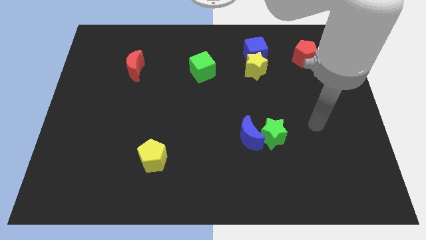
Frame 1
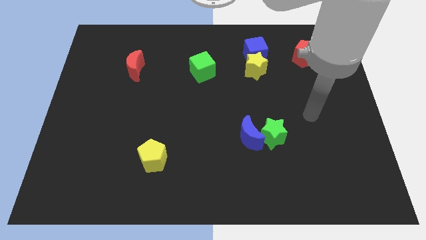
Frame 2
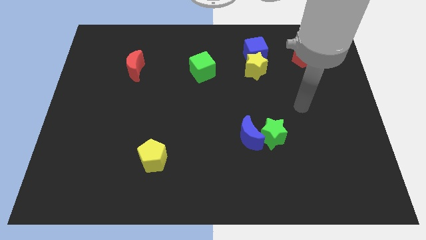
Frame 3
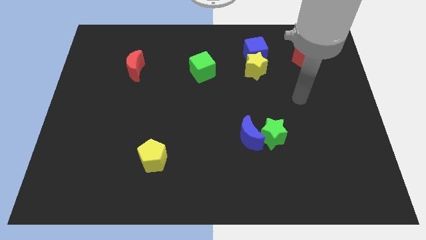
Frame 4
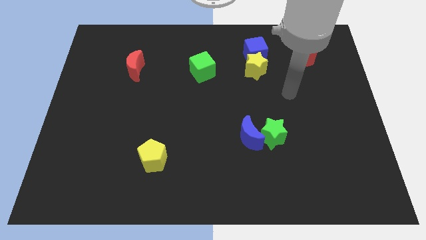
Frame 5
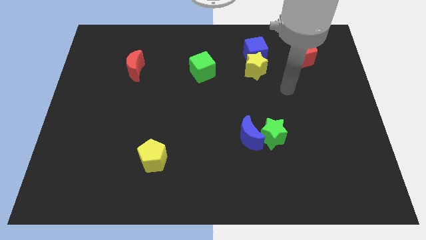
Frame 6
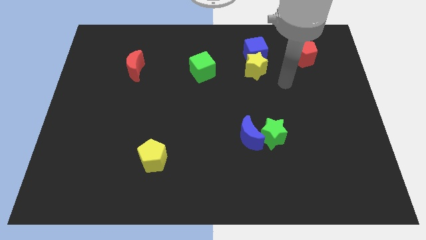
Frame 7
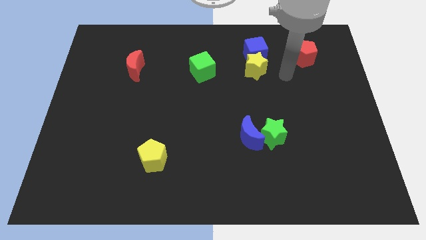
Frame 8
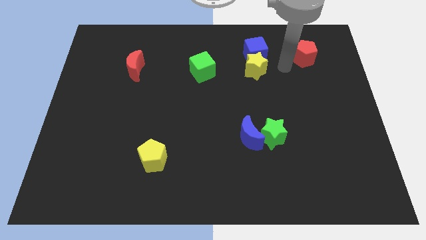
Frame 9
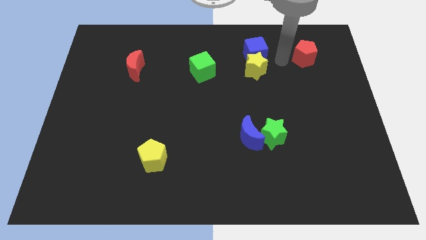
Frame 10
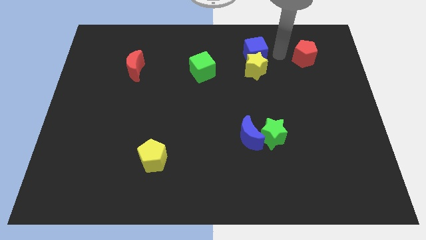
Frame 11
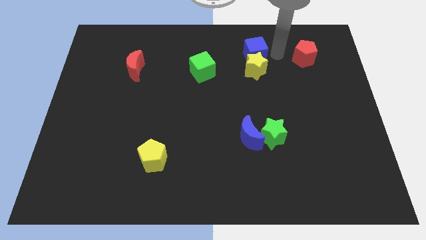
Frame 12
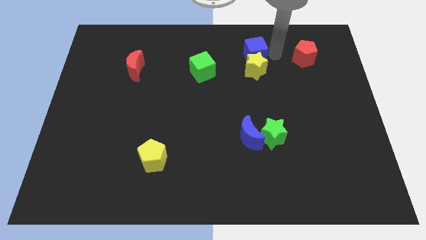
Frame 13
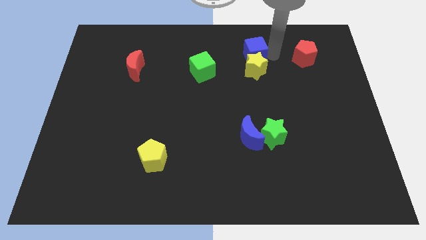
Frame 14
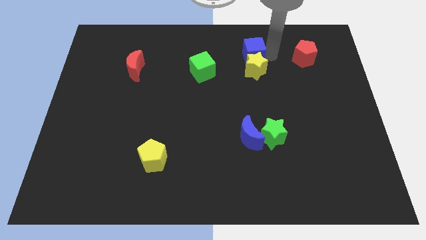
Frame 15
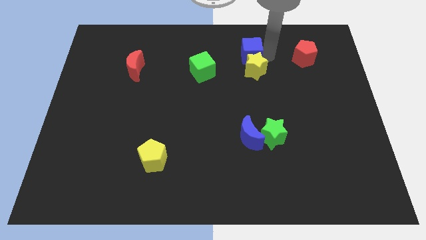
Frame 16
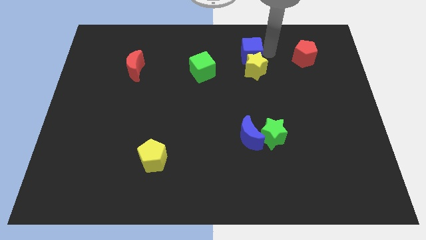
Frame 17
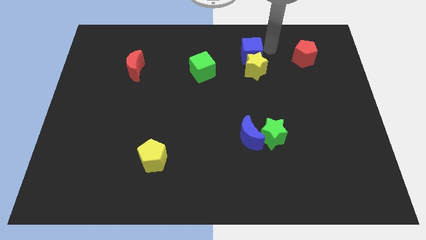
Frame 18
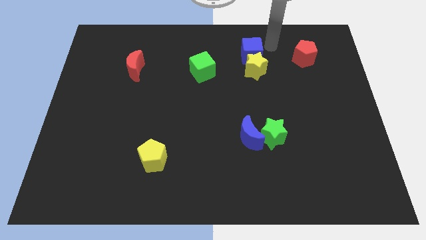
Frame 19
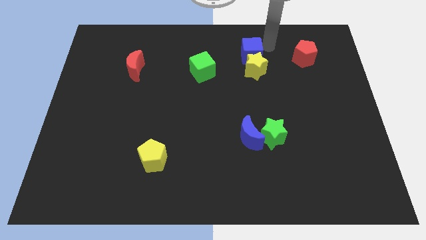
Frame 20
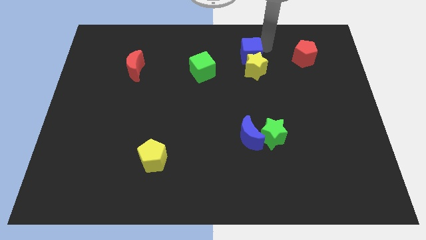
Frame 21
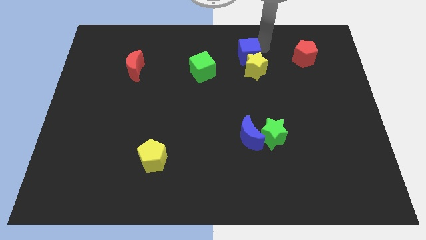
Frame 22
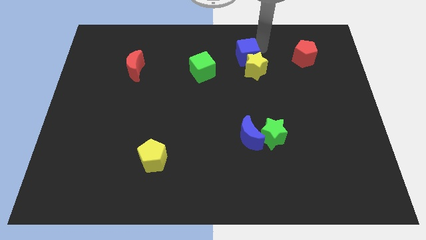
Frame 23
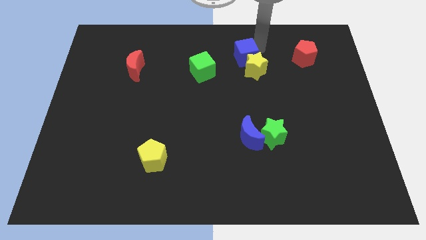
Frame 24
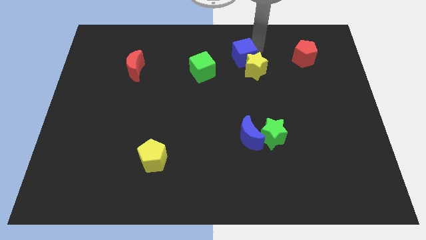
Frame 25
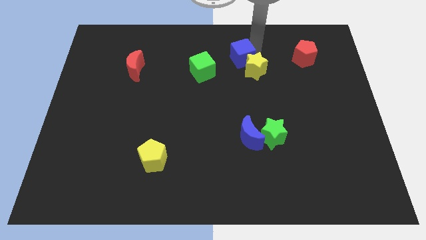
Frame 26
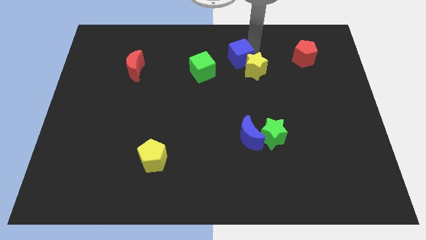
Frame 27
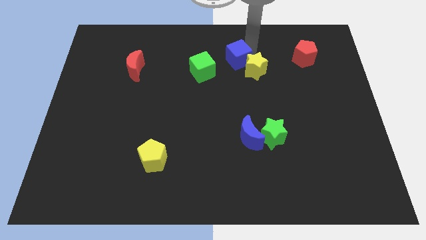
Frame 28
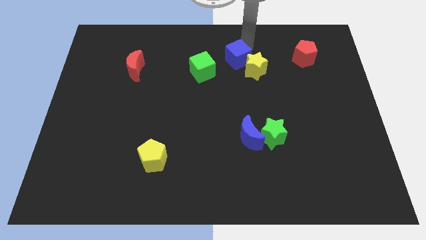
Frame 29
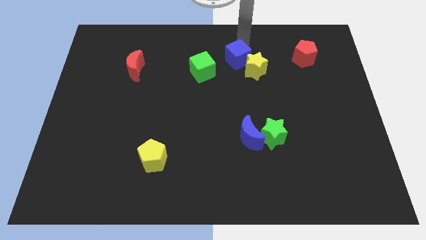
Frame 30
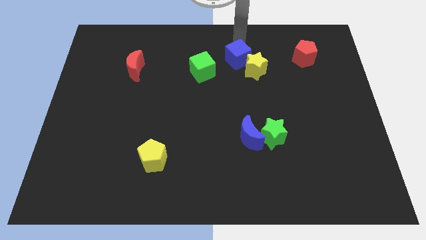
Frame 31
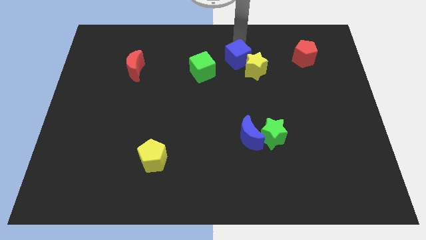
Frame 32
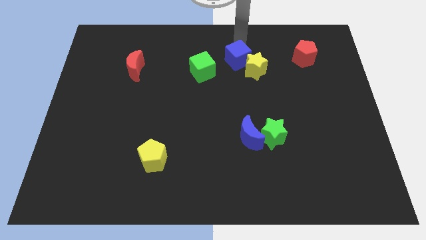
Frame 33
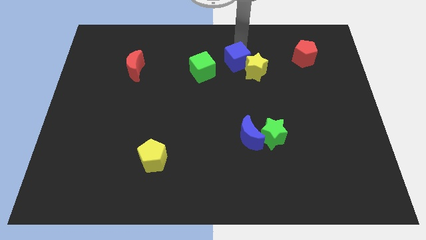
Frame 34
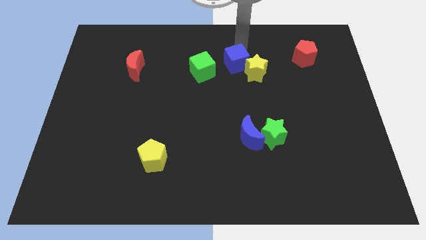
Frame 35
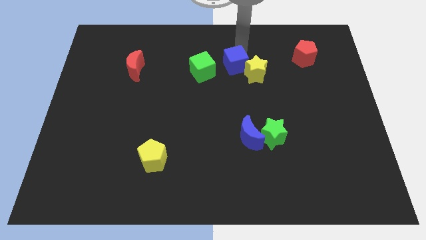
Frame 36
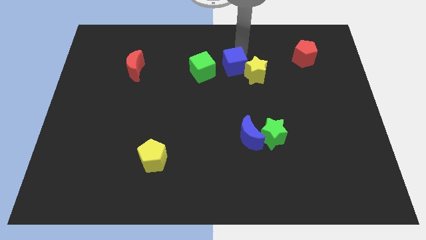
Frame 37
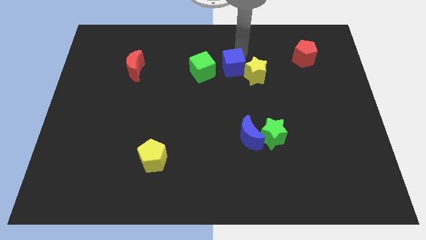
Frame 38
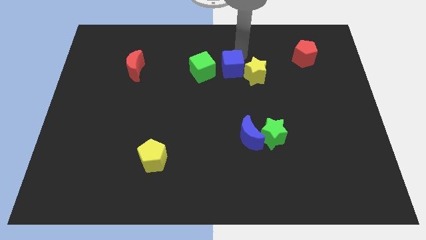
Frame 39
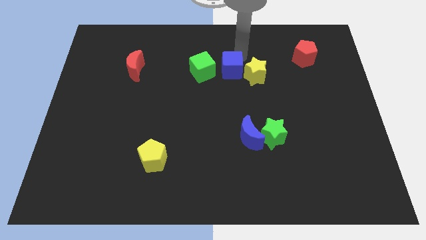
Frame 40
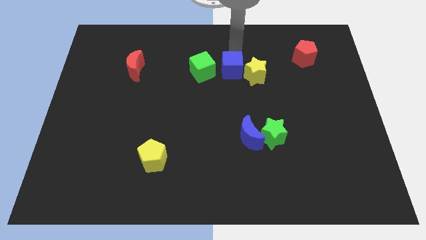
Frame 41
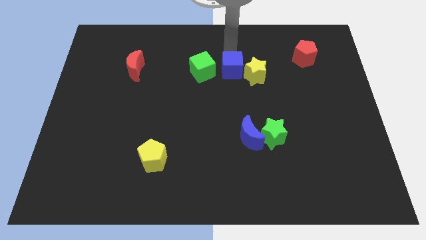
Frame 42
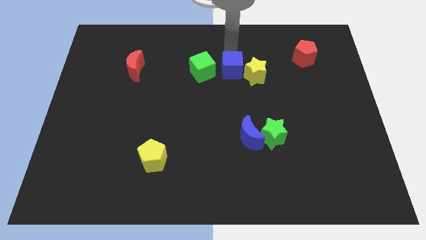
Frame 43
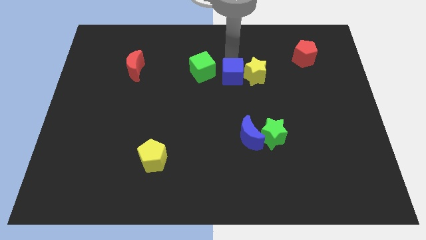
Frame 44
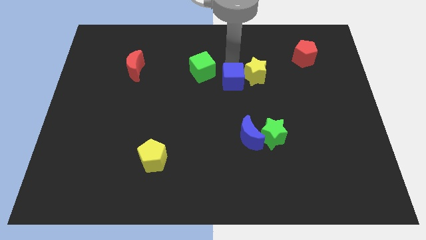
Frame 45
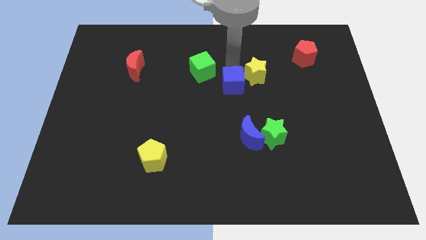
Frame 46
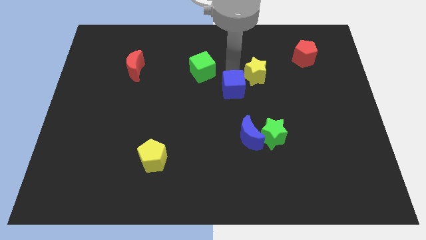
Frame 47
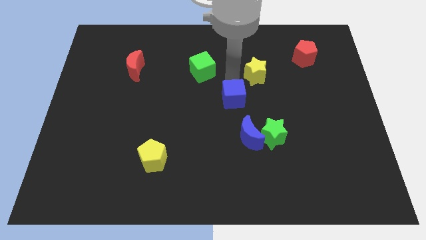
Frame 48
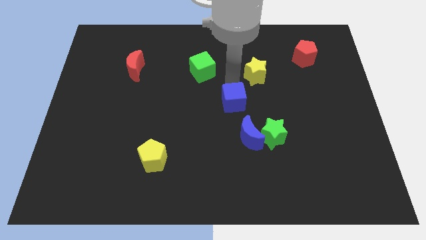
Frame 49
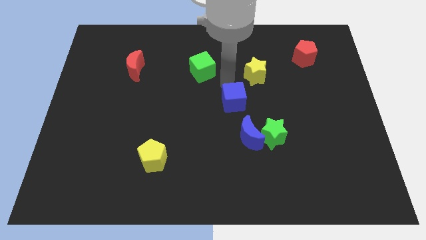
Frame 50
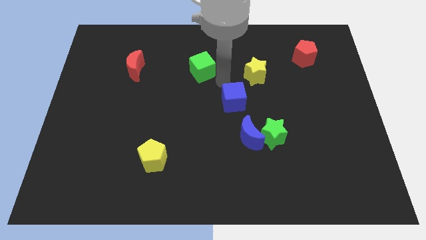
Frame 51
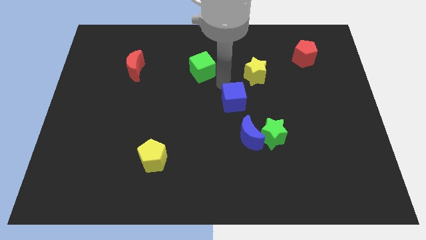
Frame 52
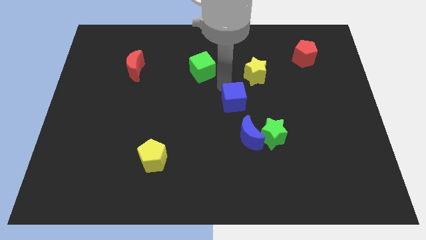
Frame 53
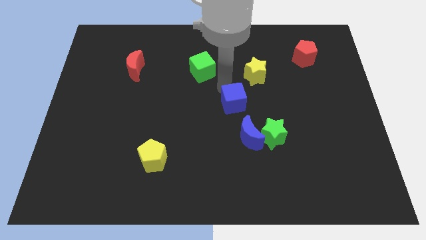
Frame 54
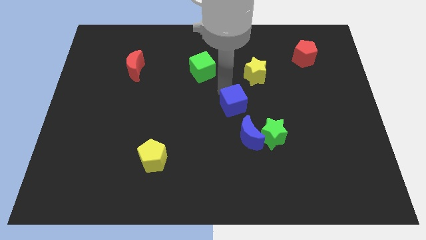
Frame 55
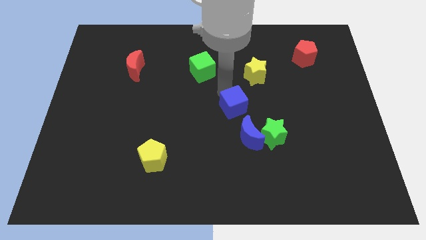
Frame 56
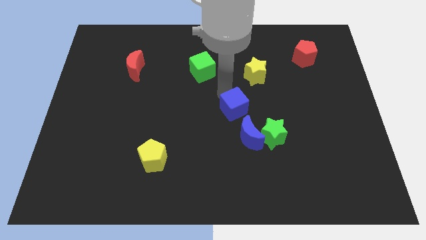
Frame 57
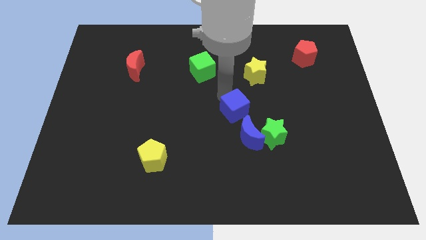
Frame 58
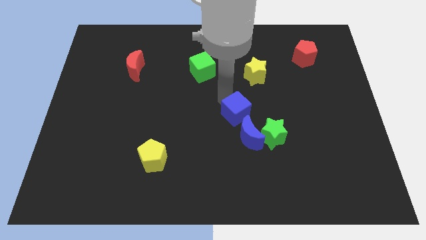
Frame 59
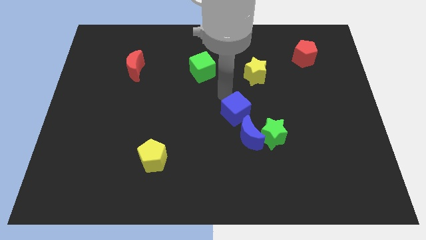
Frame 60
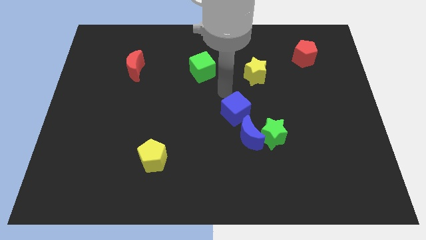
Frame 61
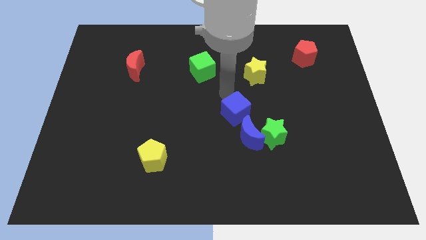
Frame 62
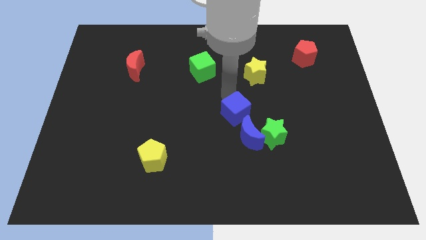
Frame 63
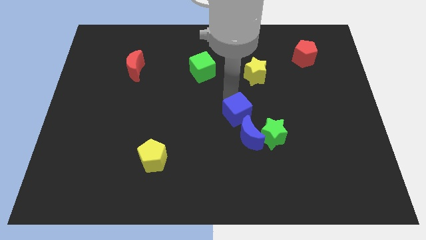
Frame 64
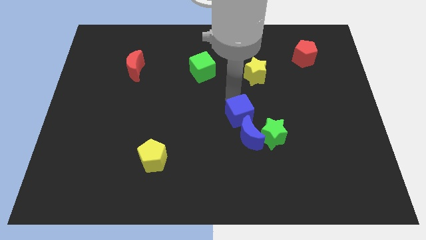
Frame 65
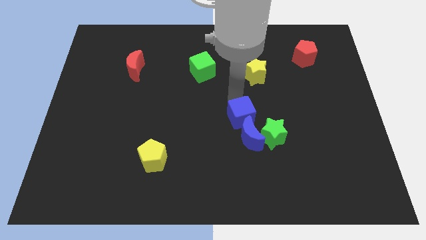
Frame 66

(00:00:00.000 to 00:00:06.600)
put the blue cube to the blue moon

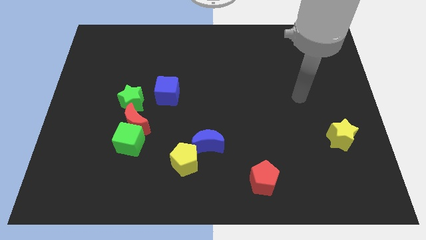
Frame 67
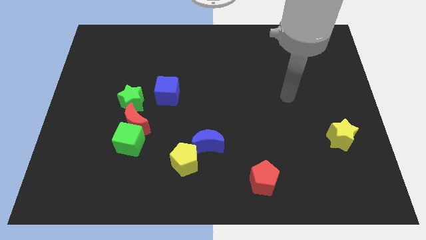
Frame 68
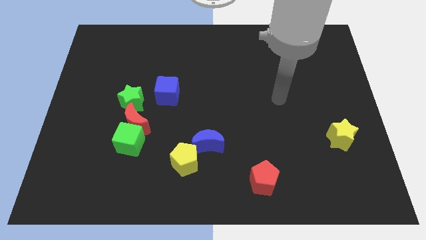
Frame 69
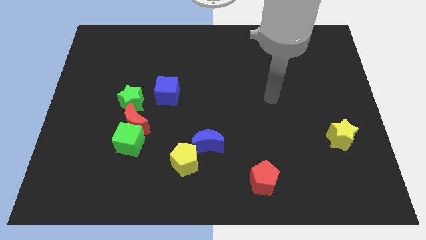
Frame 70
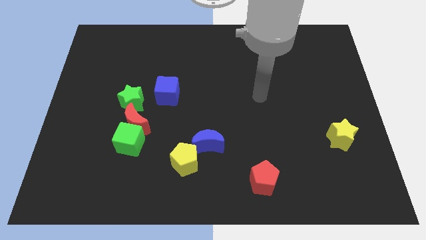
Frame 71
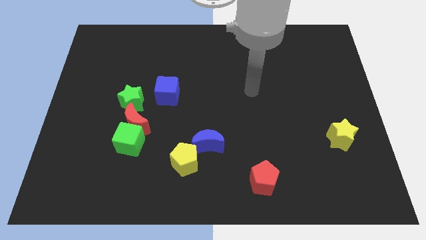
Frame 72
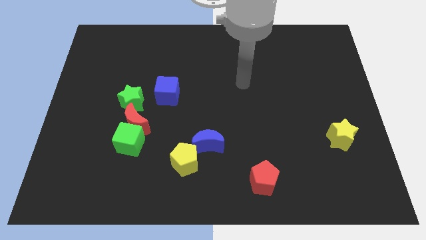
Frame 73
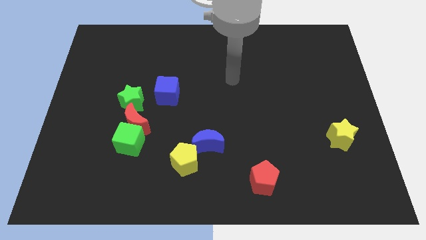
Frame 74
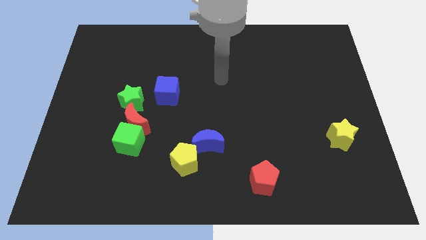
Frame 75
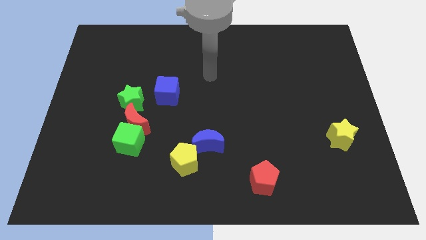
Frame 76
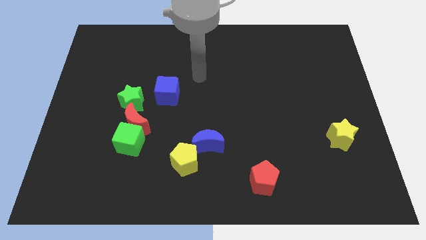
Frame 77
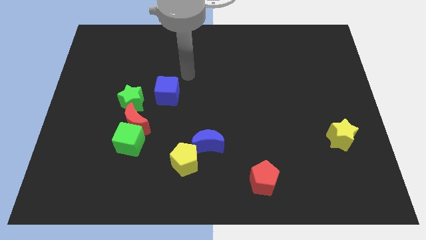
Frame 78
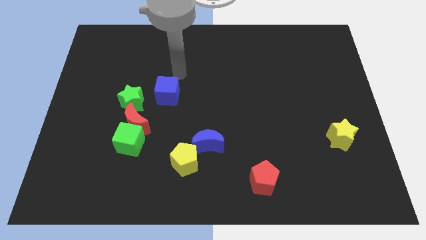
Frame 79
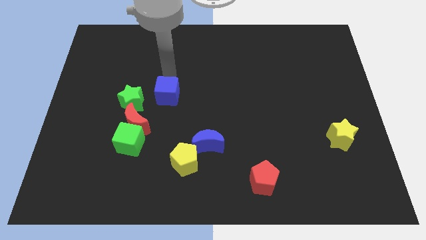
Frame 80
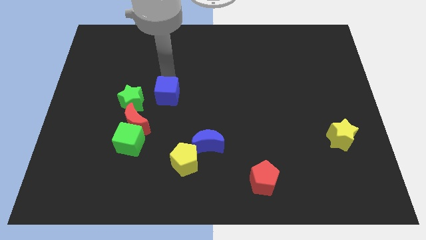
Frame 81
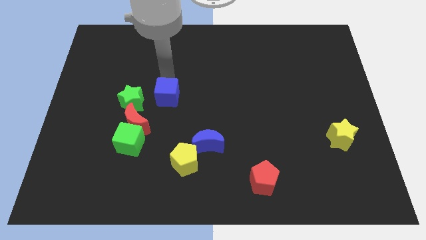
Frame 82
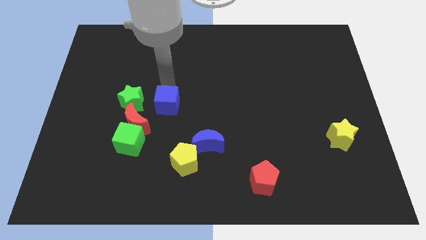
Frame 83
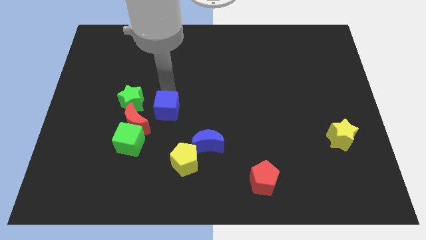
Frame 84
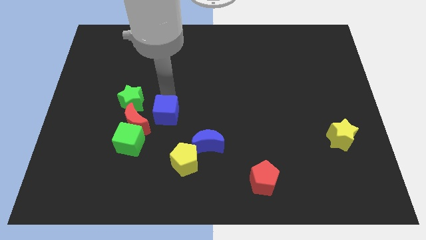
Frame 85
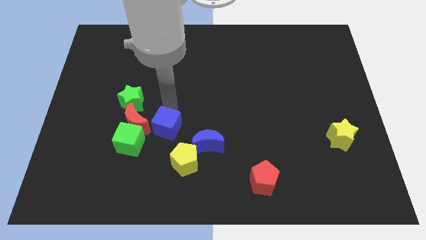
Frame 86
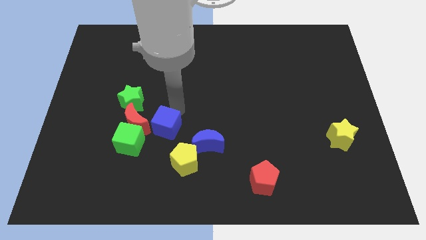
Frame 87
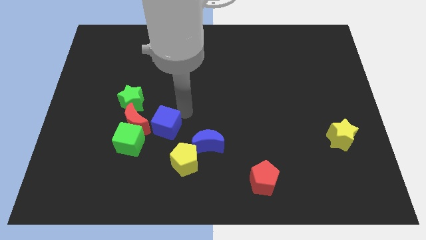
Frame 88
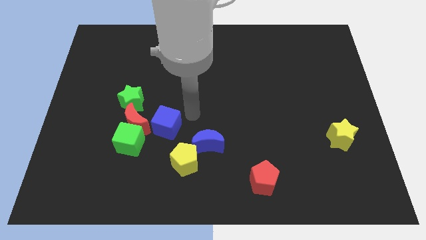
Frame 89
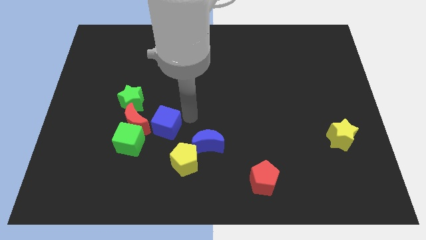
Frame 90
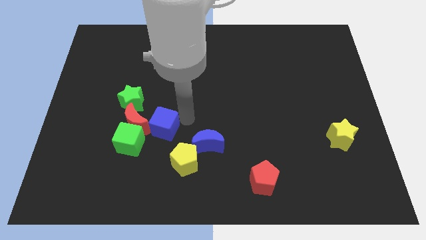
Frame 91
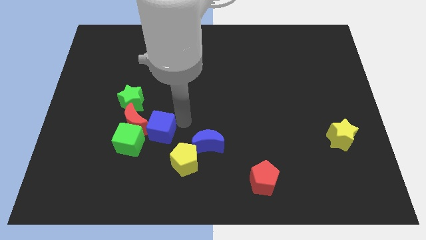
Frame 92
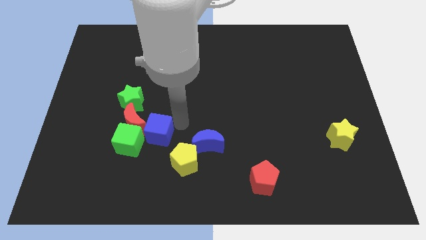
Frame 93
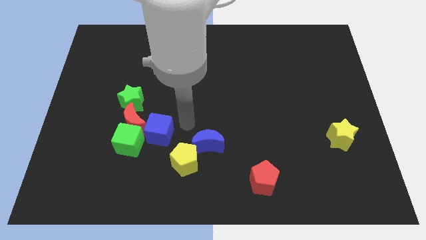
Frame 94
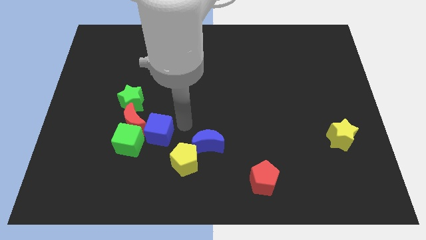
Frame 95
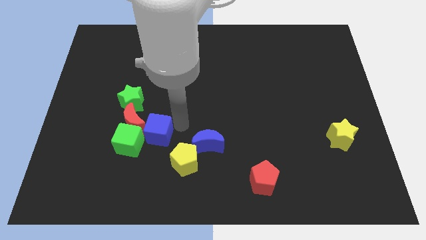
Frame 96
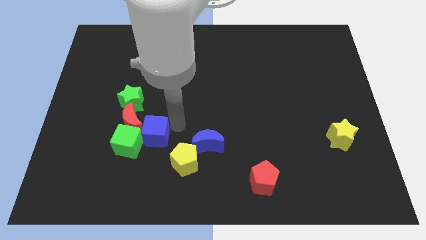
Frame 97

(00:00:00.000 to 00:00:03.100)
move the blue cube next to the green cube
